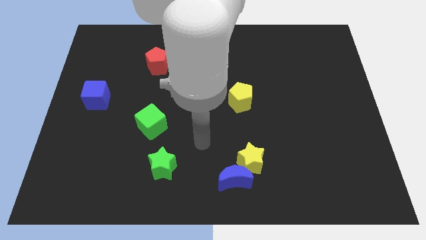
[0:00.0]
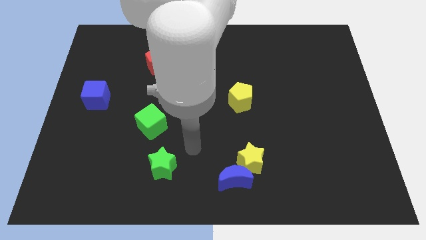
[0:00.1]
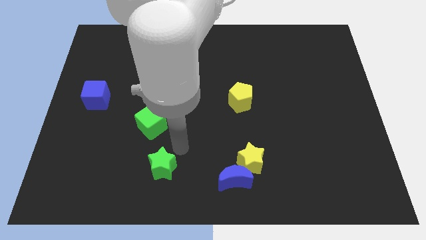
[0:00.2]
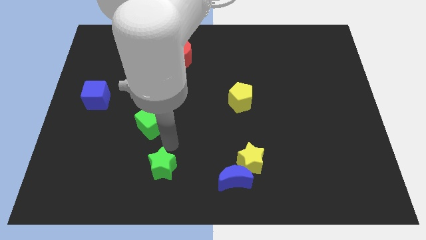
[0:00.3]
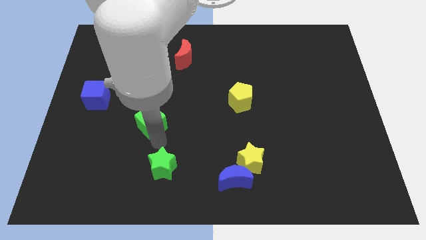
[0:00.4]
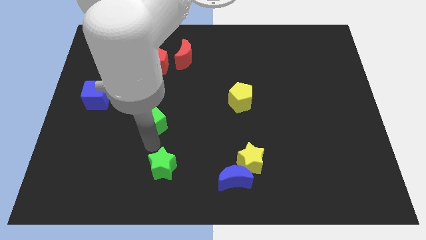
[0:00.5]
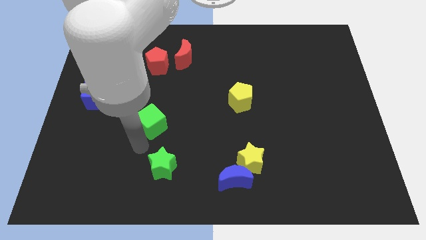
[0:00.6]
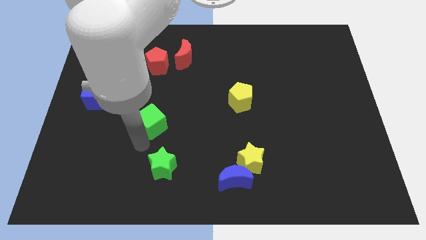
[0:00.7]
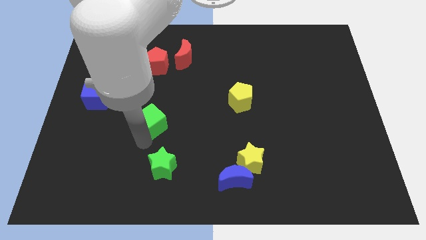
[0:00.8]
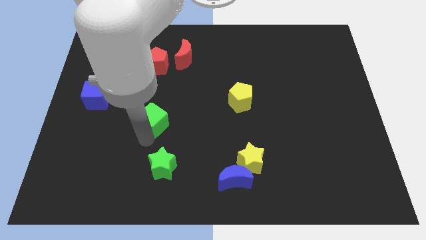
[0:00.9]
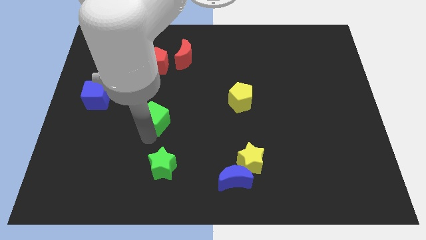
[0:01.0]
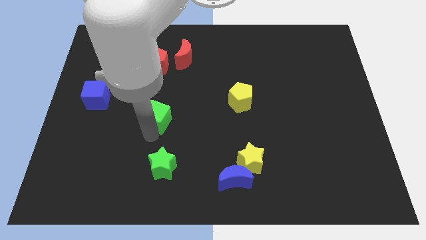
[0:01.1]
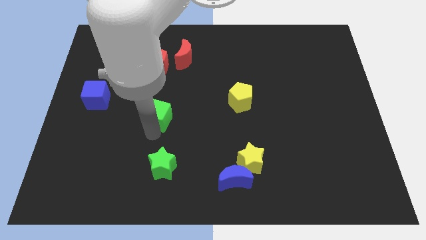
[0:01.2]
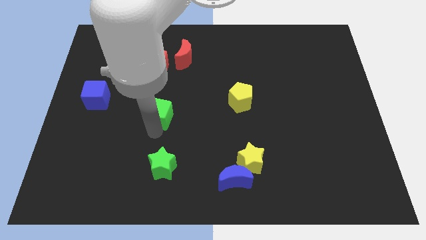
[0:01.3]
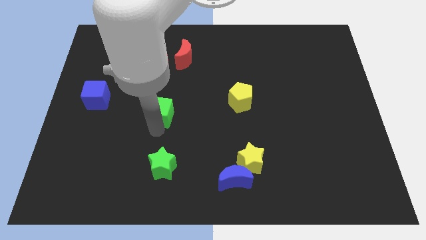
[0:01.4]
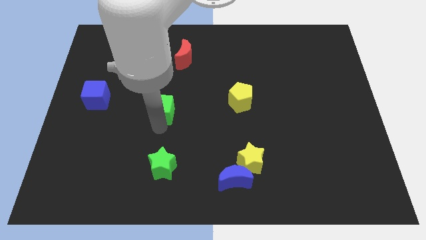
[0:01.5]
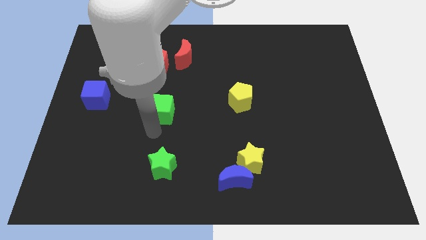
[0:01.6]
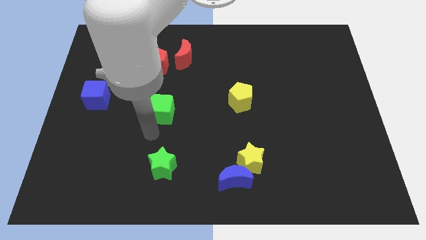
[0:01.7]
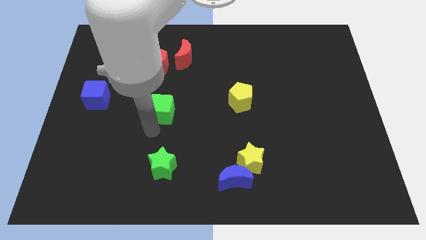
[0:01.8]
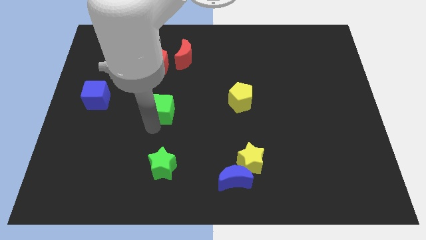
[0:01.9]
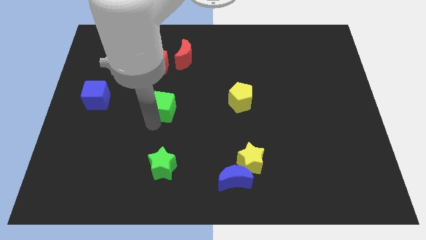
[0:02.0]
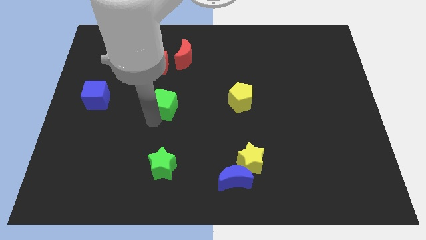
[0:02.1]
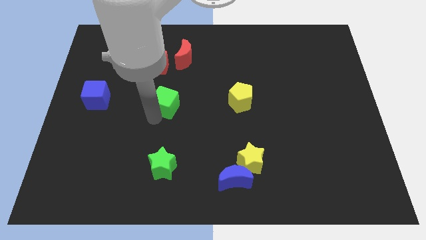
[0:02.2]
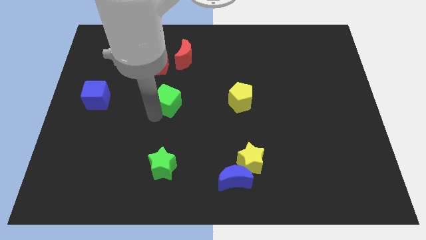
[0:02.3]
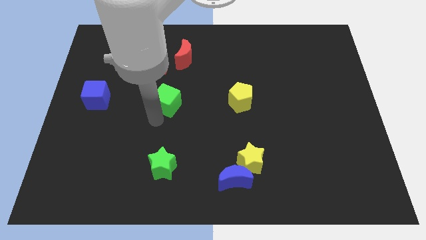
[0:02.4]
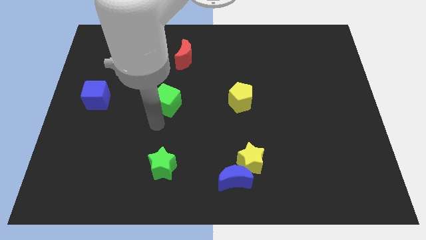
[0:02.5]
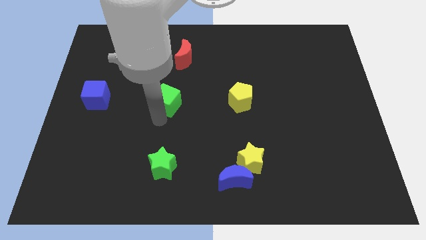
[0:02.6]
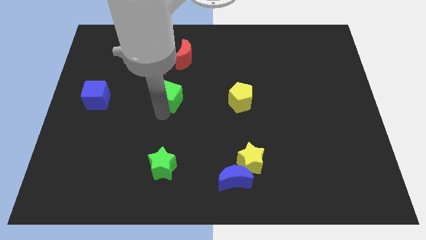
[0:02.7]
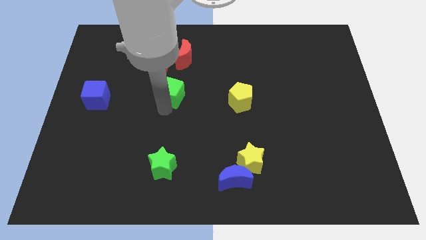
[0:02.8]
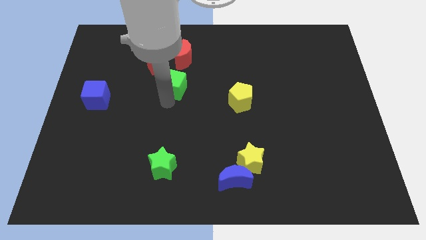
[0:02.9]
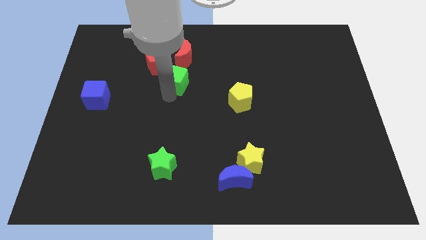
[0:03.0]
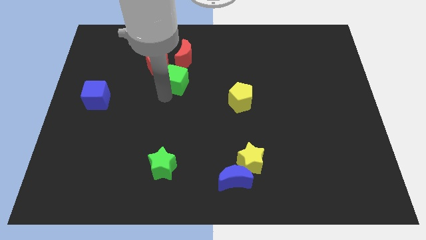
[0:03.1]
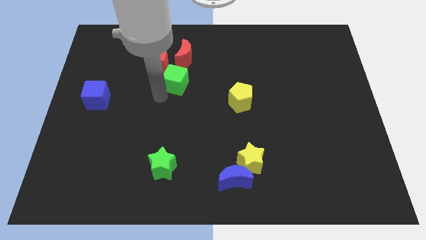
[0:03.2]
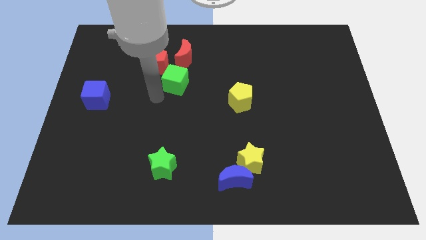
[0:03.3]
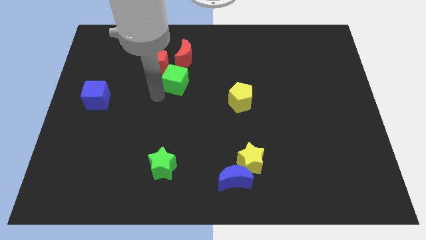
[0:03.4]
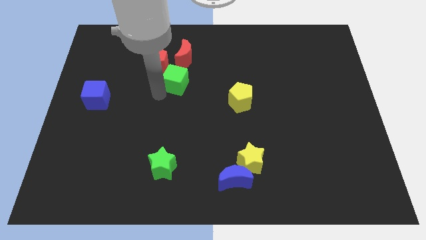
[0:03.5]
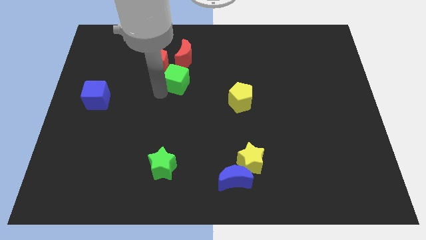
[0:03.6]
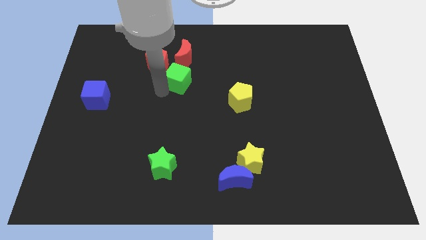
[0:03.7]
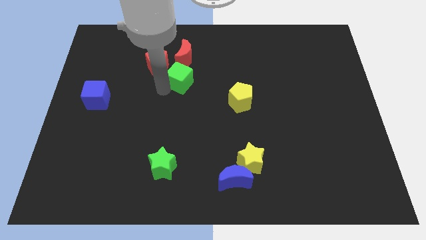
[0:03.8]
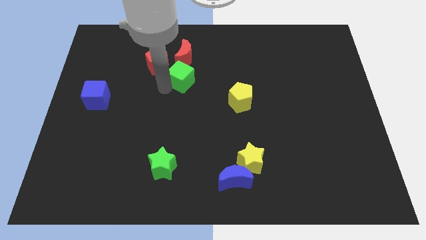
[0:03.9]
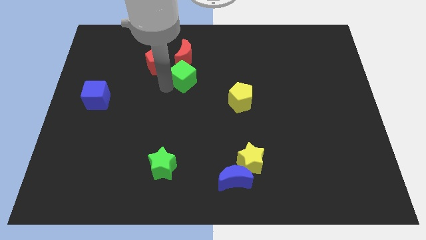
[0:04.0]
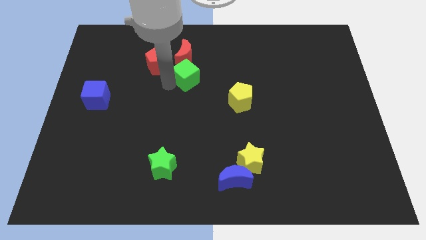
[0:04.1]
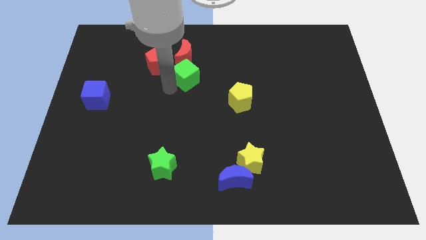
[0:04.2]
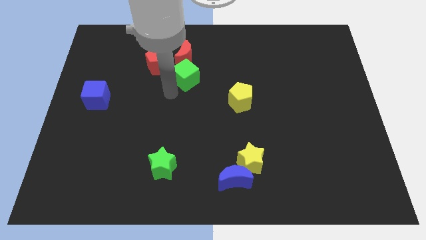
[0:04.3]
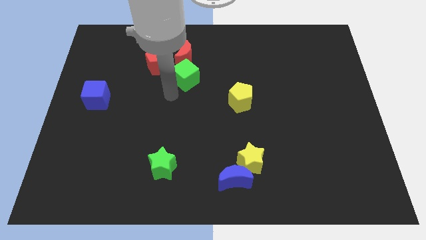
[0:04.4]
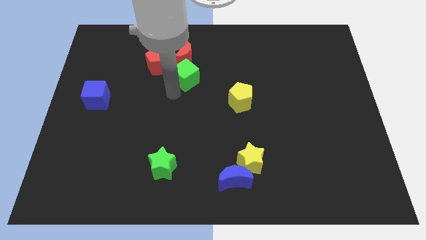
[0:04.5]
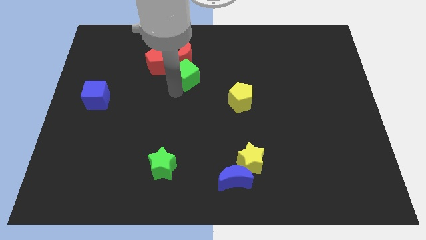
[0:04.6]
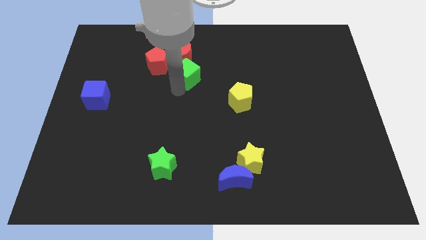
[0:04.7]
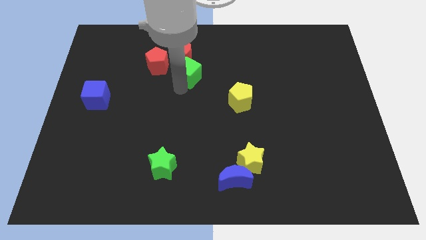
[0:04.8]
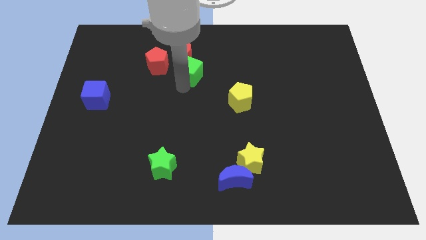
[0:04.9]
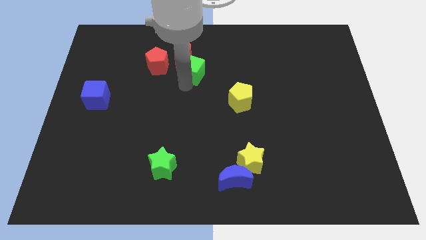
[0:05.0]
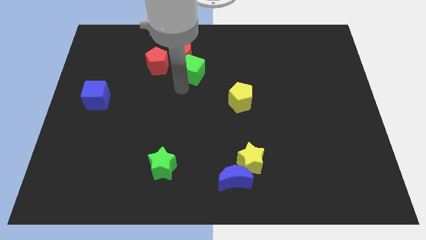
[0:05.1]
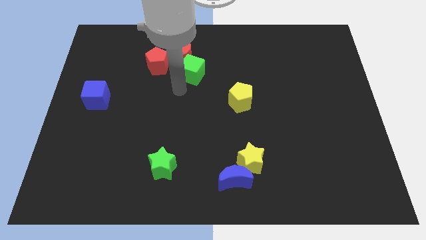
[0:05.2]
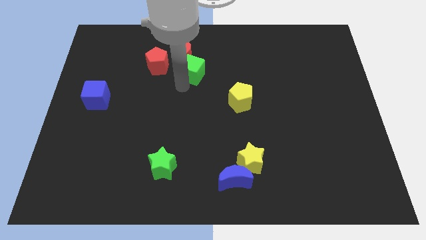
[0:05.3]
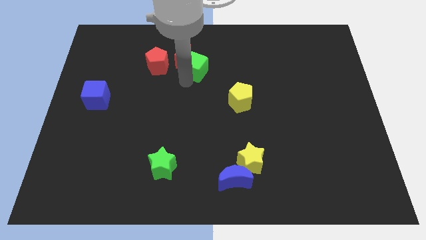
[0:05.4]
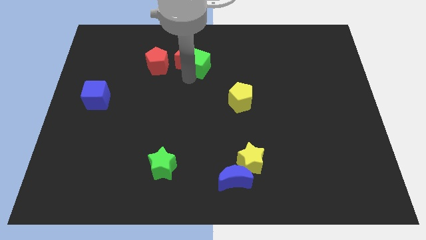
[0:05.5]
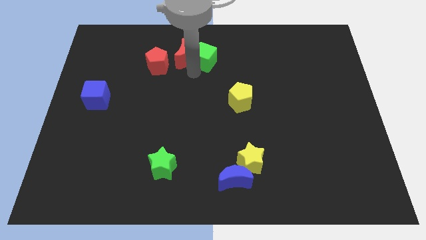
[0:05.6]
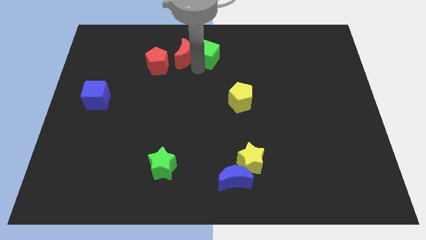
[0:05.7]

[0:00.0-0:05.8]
move the green cube to the top
